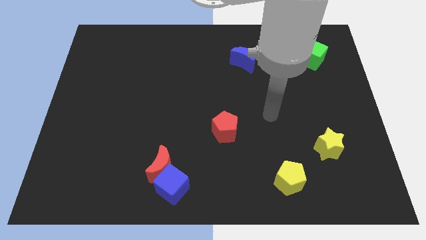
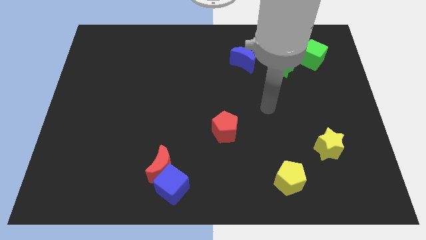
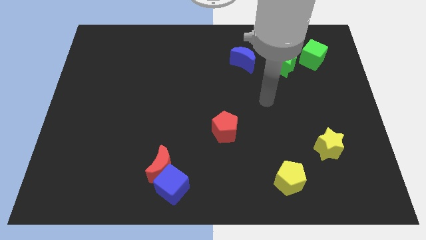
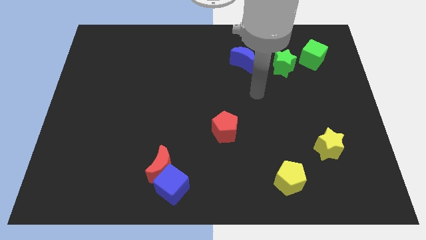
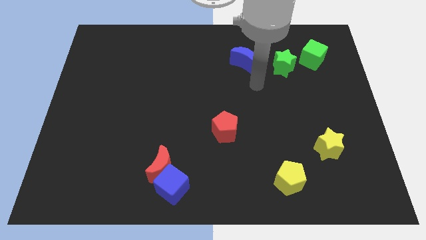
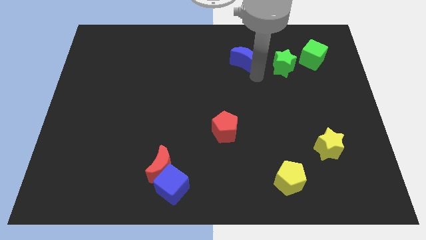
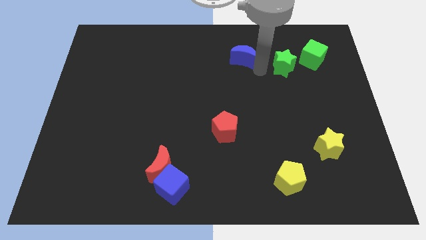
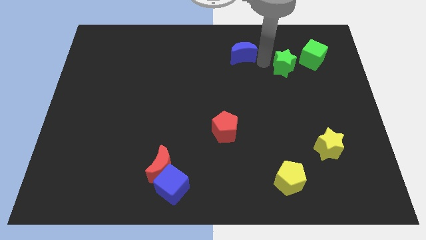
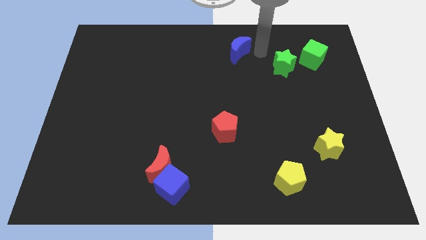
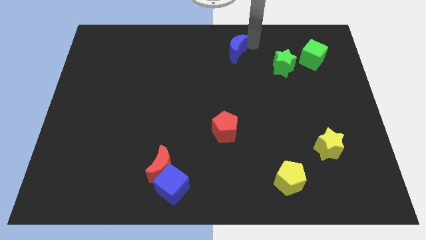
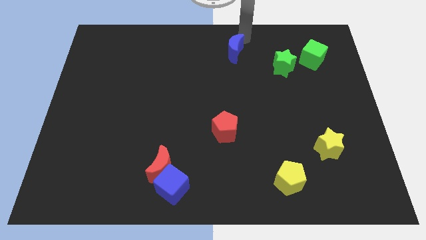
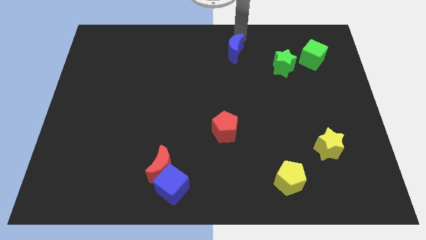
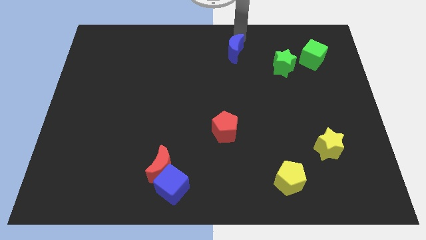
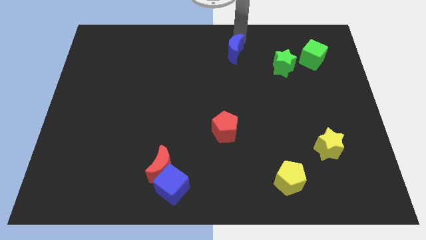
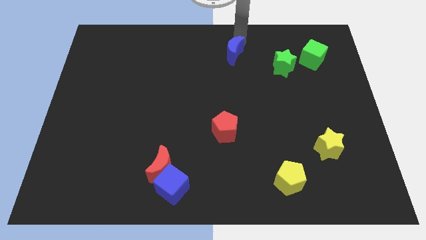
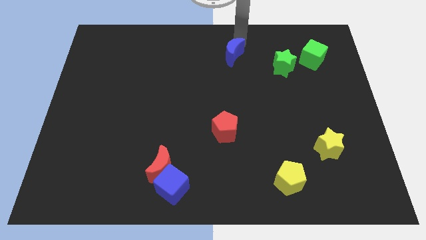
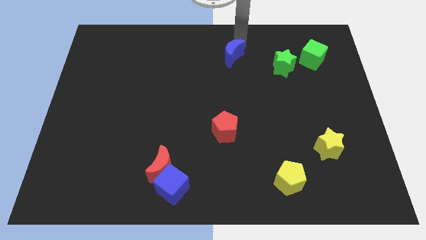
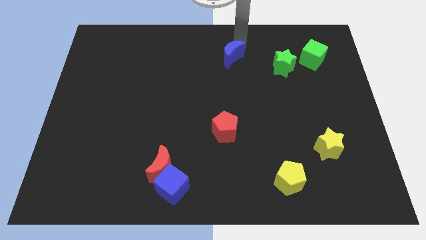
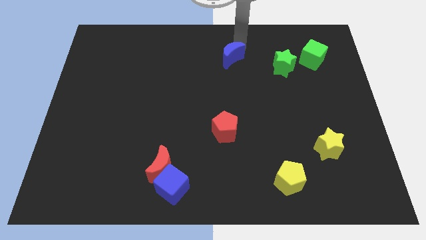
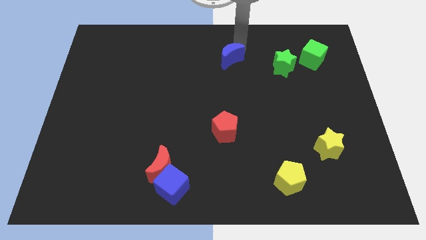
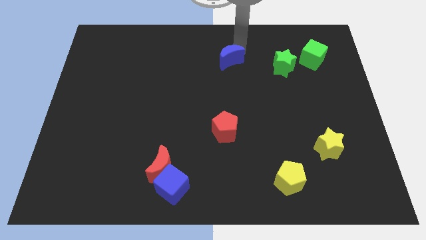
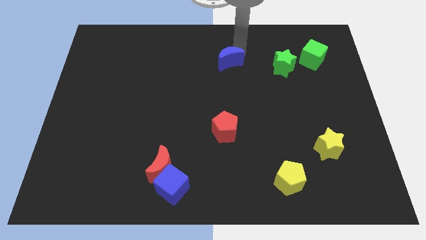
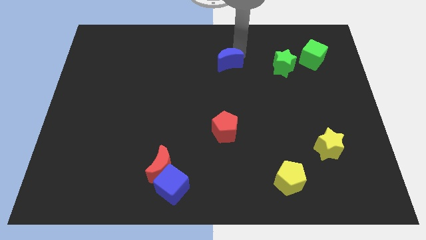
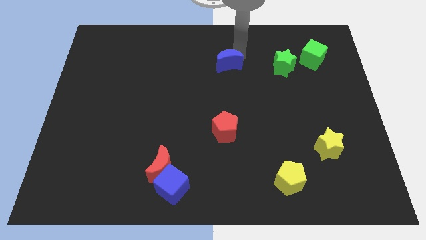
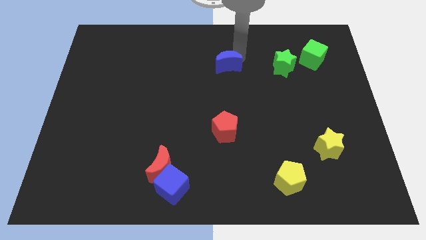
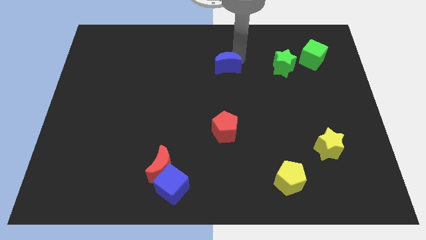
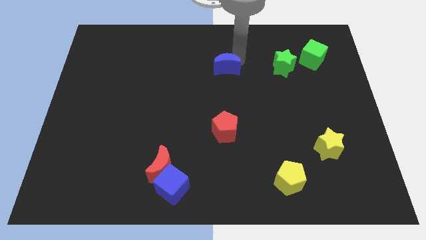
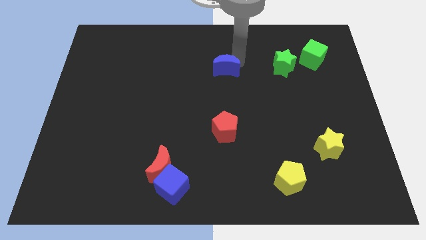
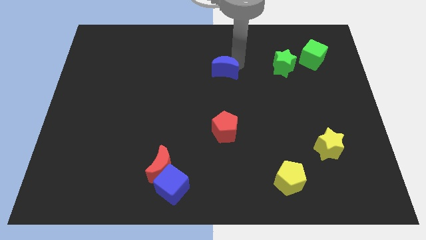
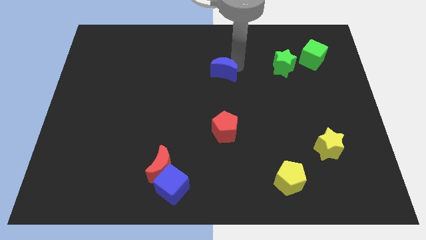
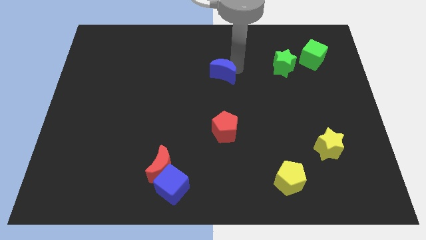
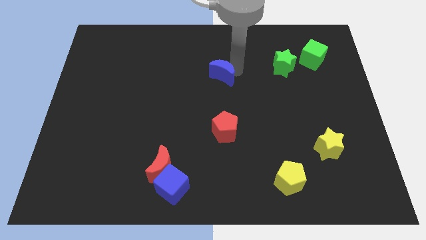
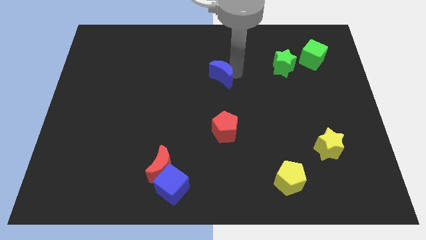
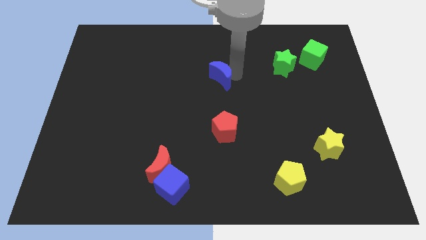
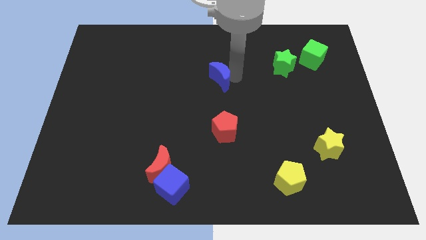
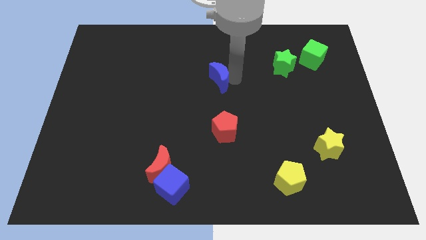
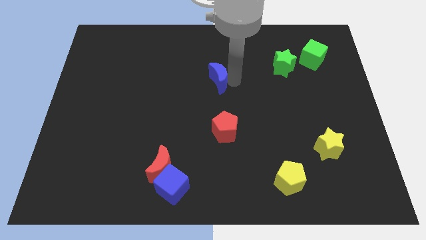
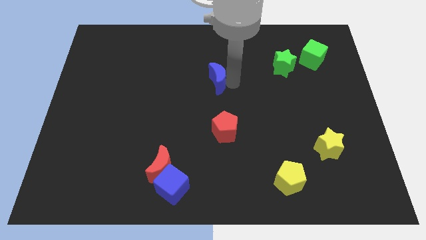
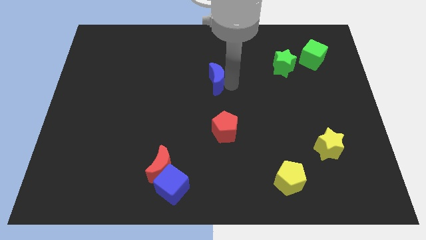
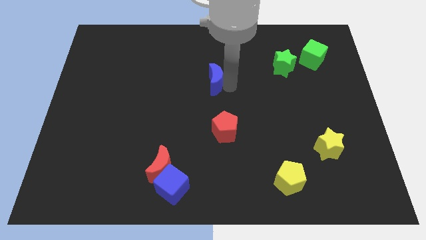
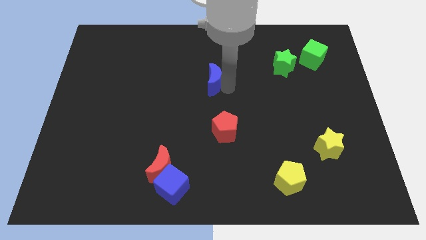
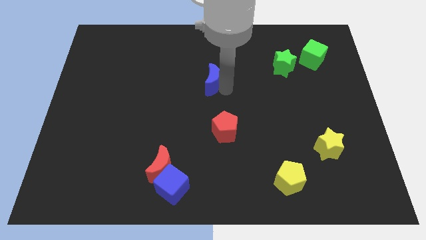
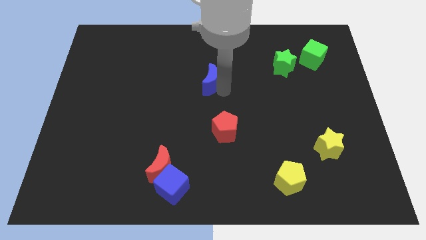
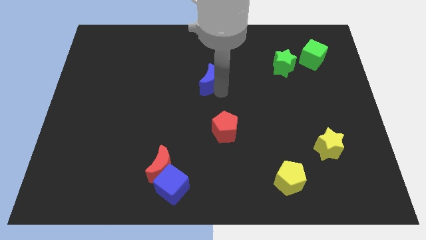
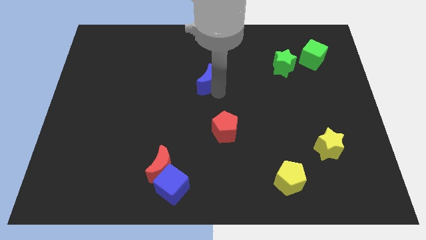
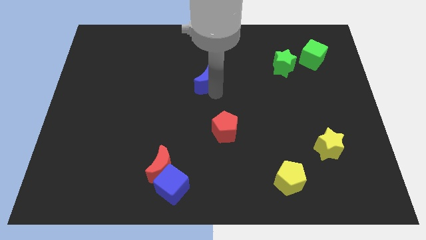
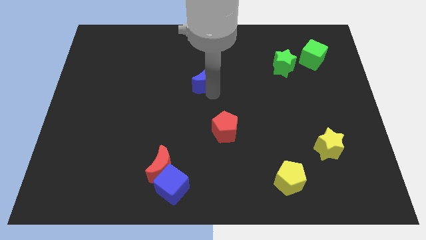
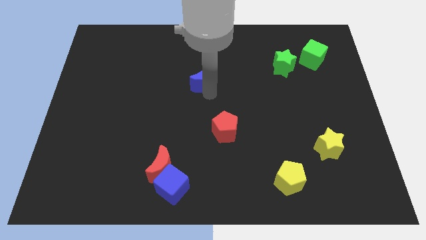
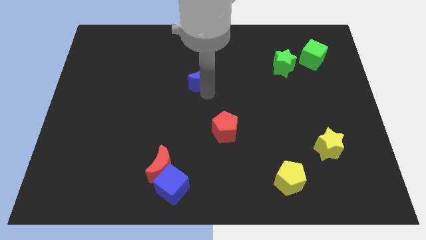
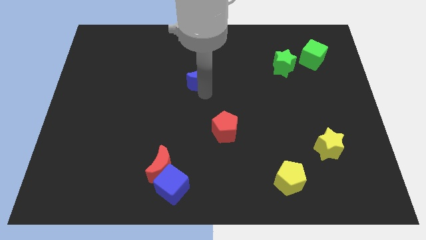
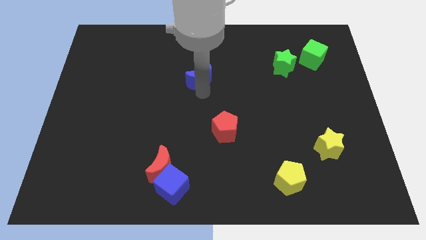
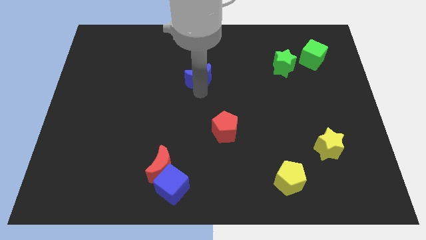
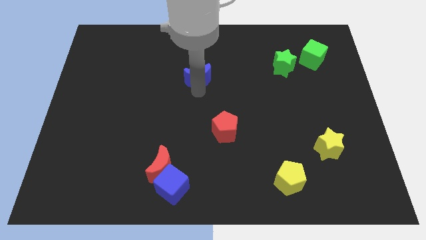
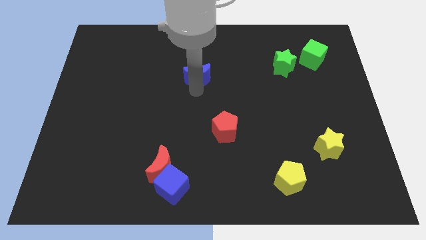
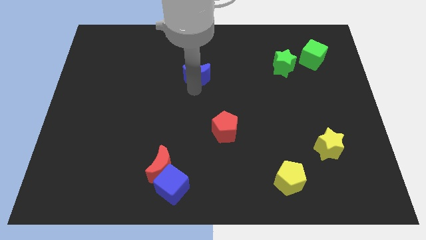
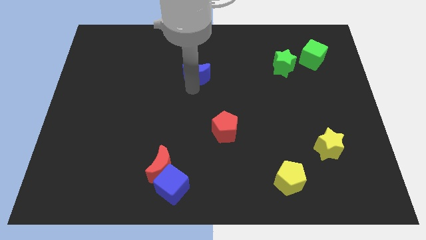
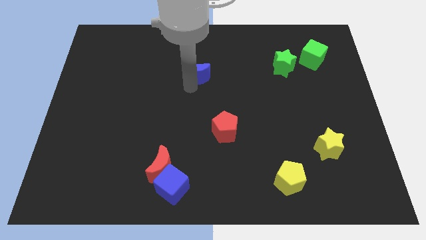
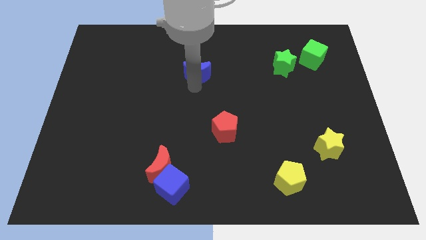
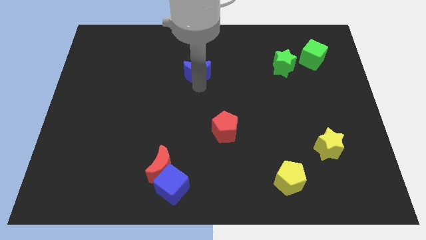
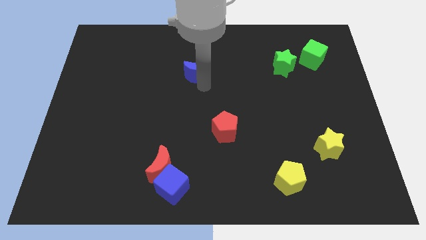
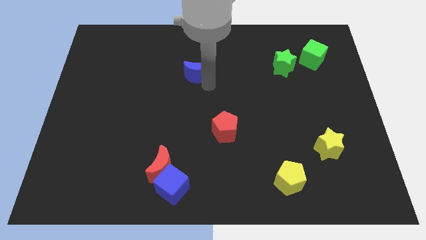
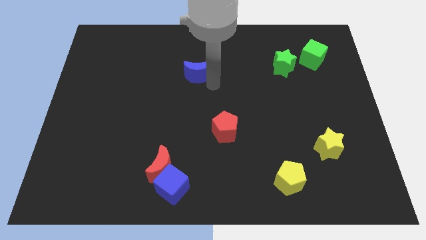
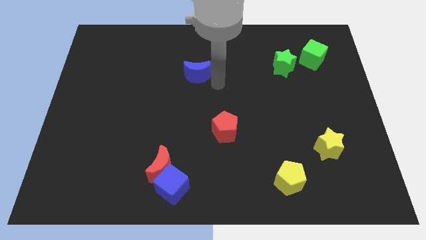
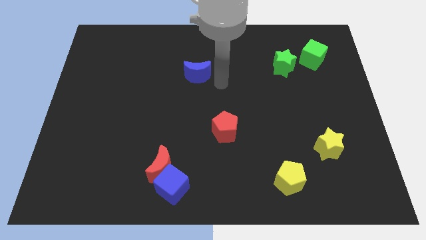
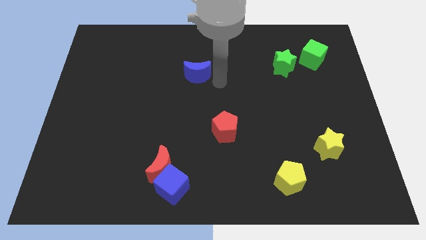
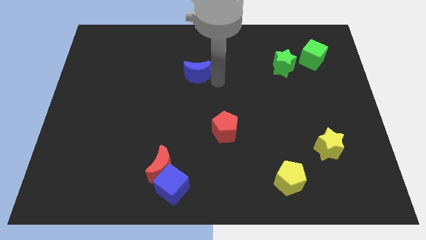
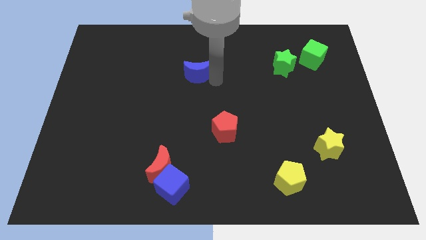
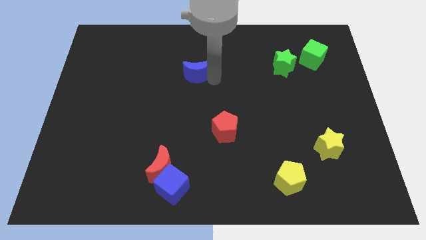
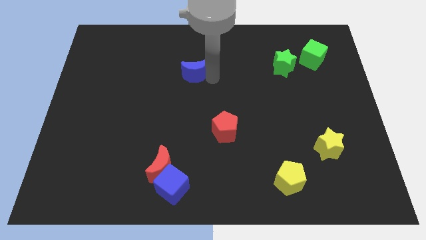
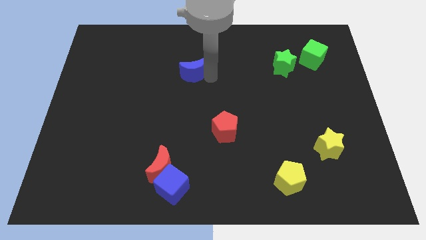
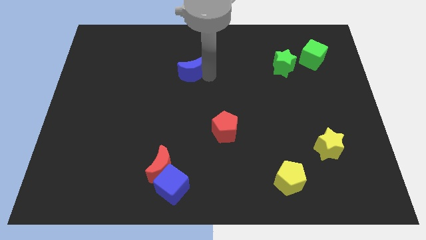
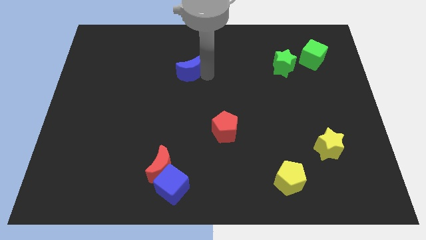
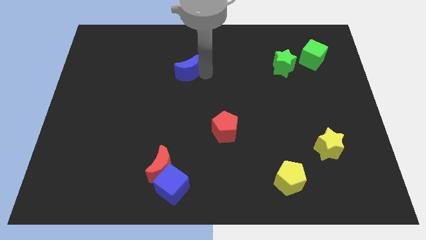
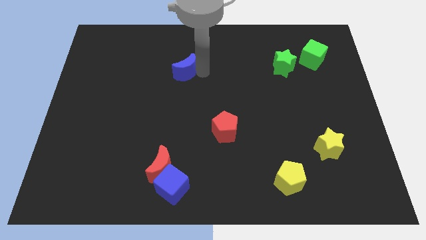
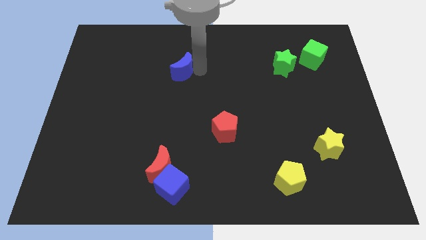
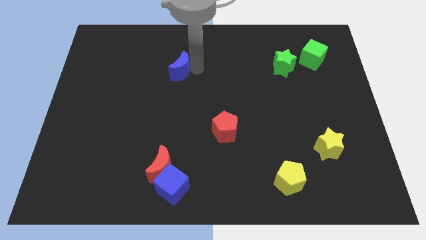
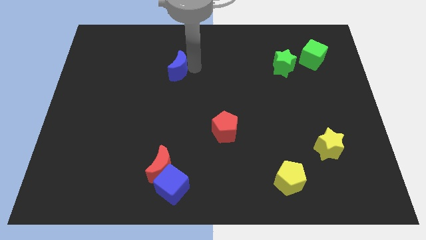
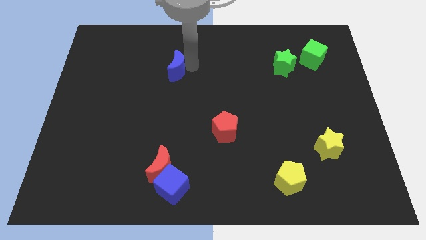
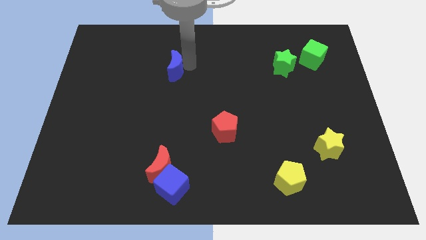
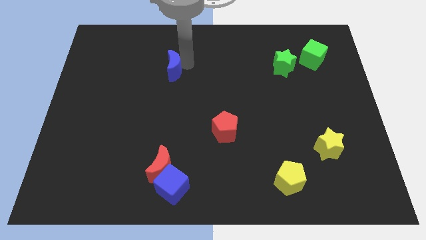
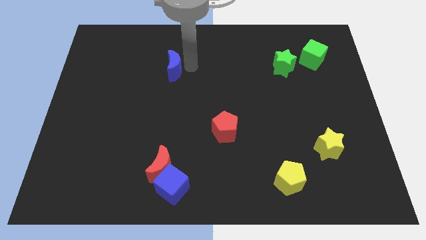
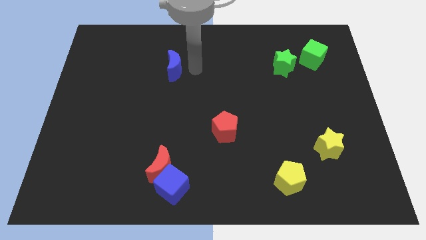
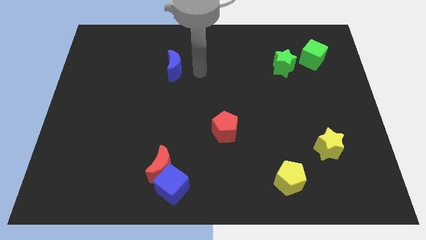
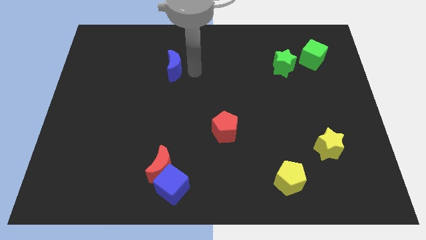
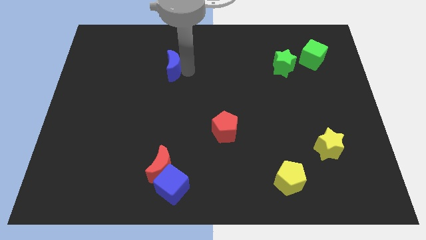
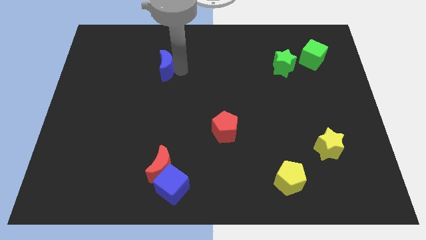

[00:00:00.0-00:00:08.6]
move the blue moon to the left
